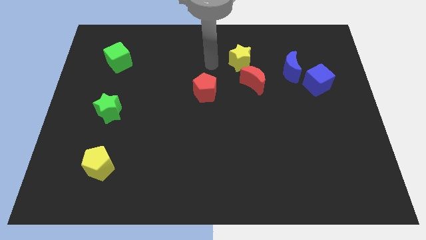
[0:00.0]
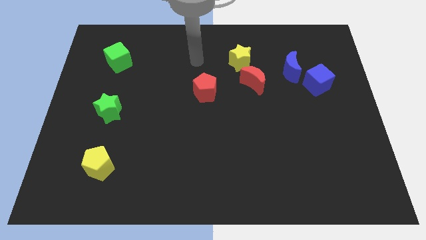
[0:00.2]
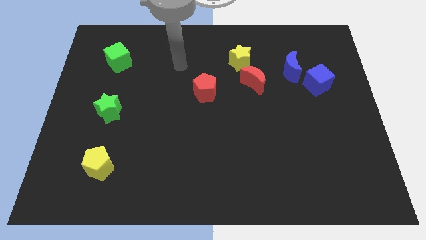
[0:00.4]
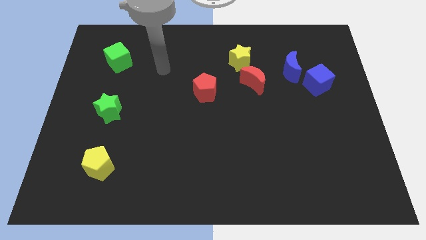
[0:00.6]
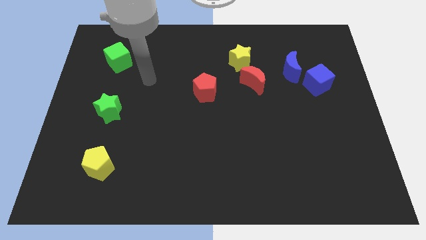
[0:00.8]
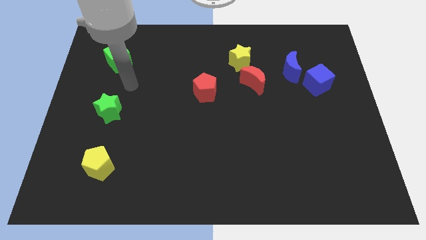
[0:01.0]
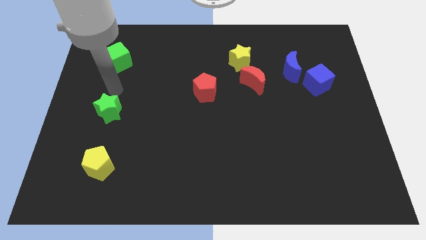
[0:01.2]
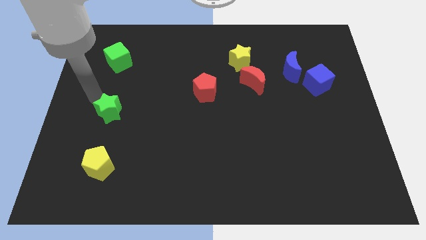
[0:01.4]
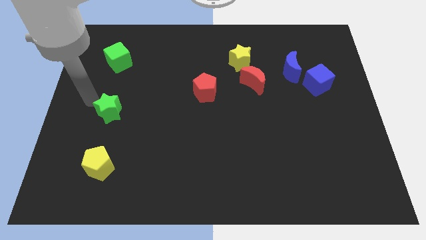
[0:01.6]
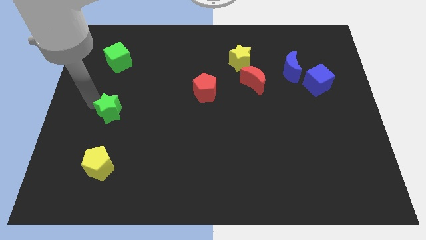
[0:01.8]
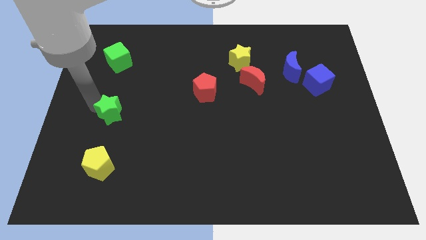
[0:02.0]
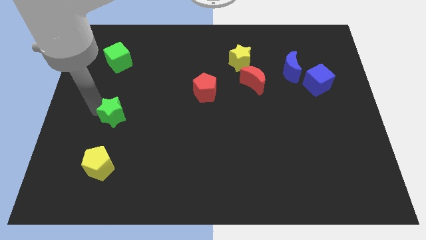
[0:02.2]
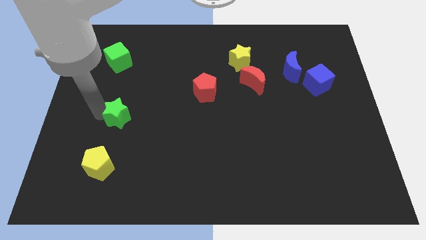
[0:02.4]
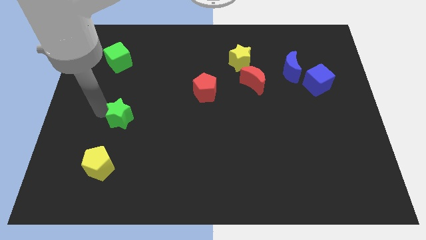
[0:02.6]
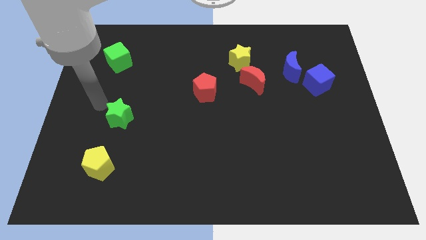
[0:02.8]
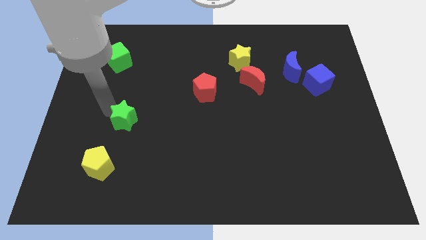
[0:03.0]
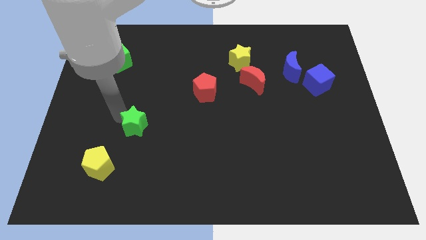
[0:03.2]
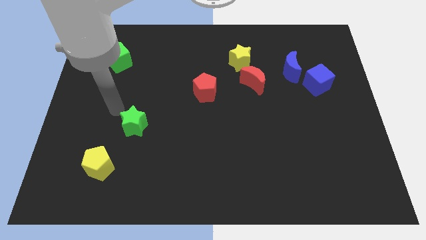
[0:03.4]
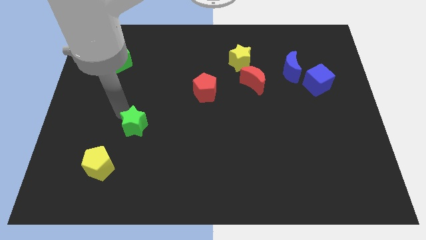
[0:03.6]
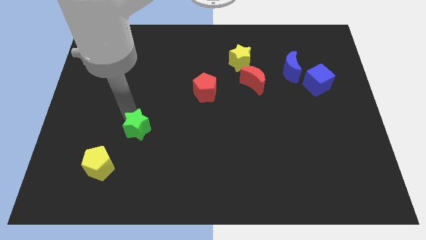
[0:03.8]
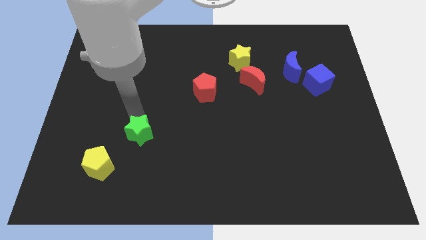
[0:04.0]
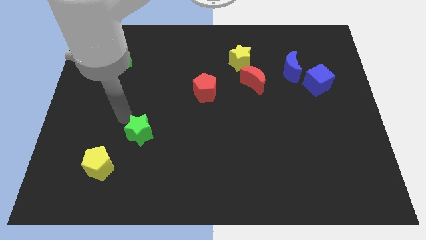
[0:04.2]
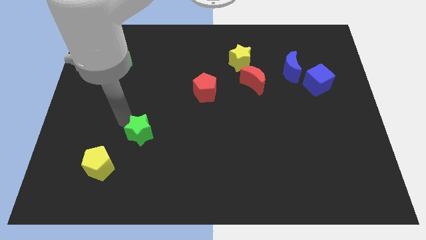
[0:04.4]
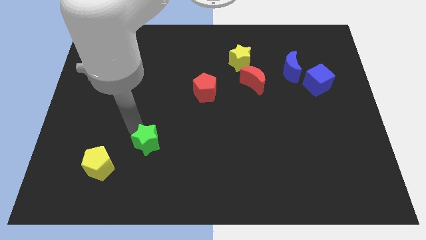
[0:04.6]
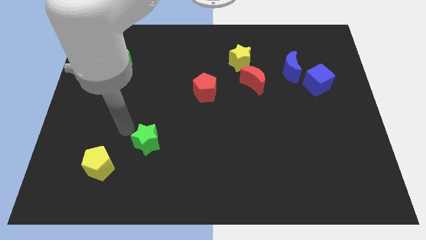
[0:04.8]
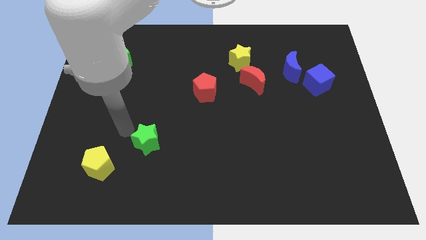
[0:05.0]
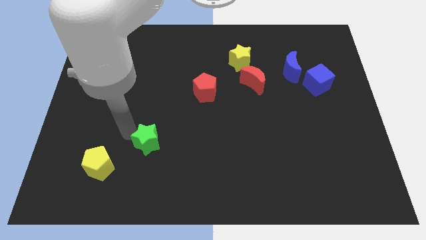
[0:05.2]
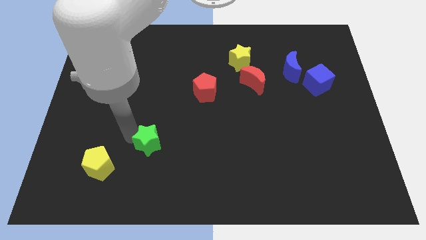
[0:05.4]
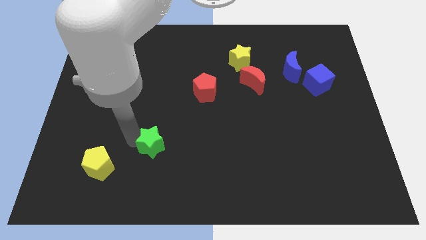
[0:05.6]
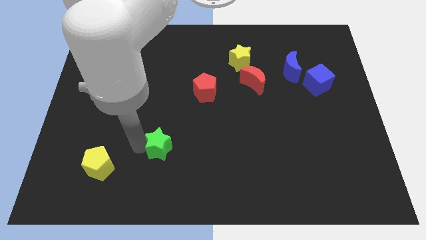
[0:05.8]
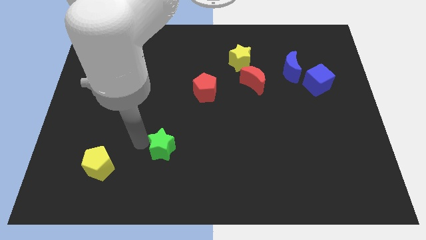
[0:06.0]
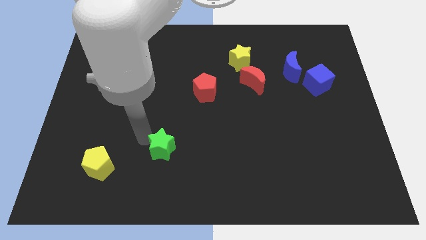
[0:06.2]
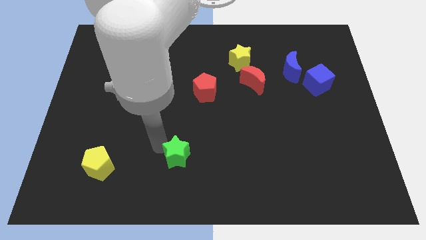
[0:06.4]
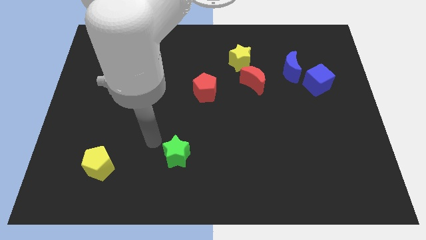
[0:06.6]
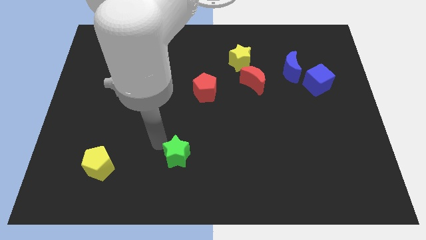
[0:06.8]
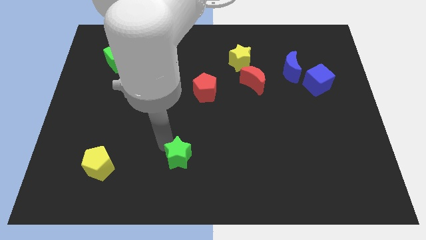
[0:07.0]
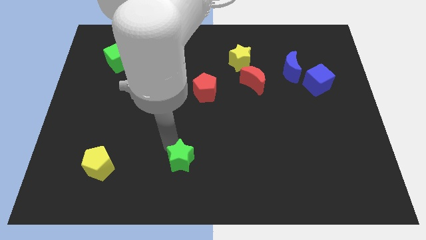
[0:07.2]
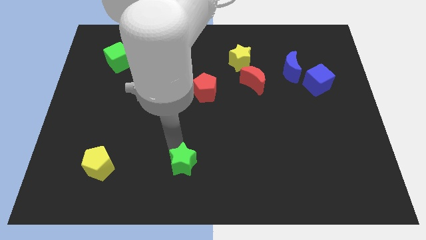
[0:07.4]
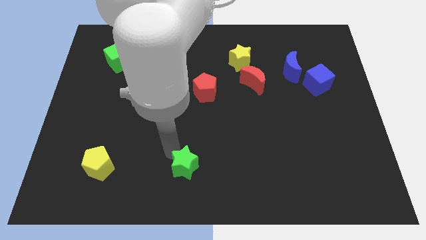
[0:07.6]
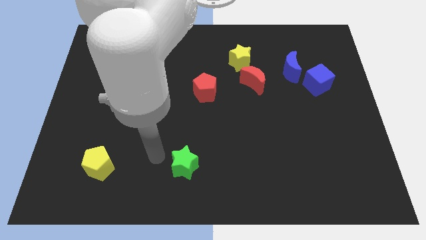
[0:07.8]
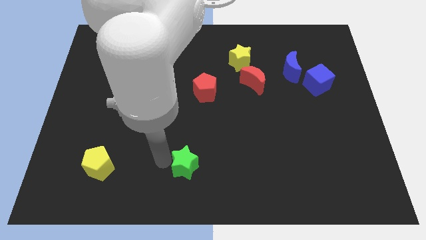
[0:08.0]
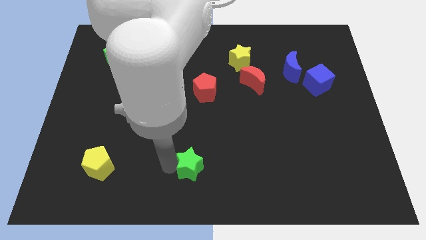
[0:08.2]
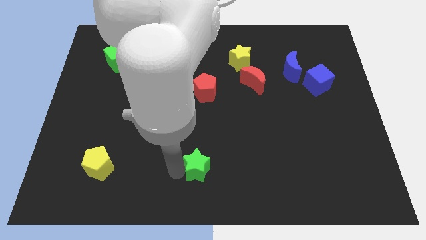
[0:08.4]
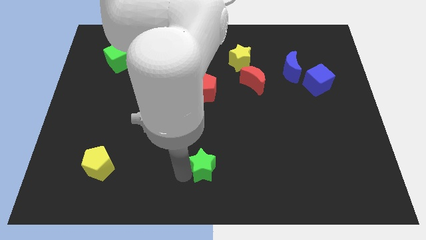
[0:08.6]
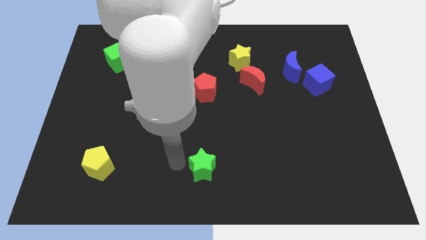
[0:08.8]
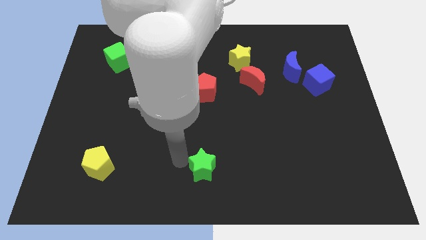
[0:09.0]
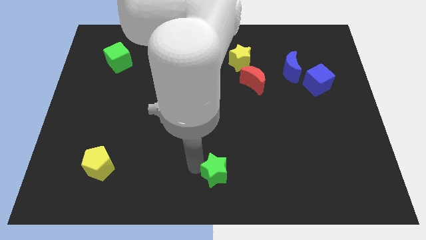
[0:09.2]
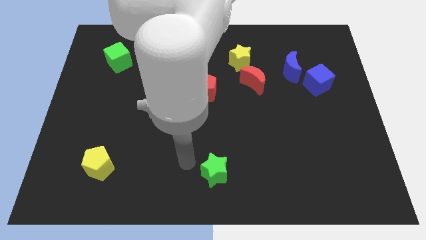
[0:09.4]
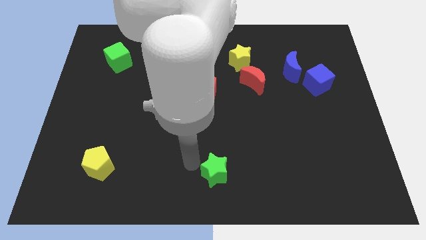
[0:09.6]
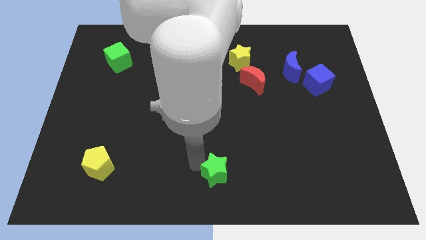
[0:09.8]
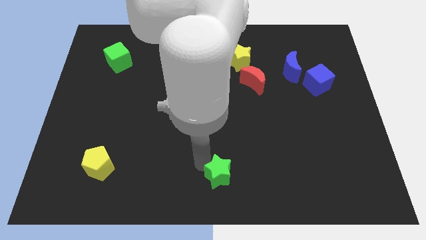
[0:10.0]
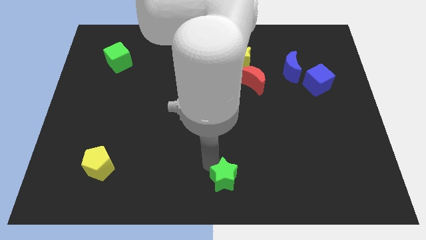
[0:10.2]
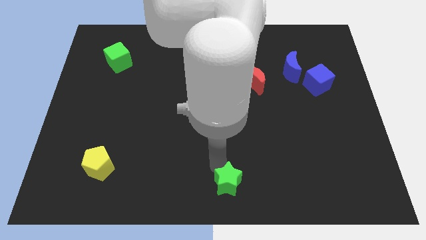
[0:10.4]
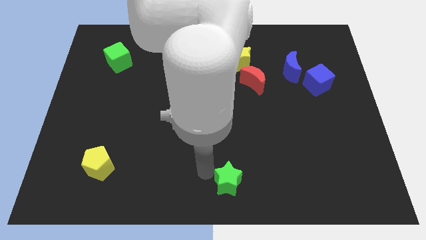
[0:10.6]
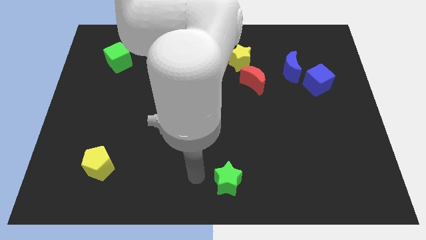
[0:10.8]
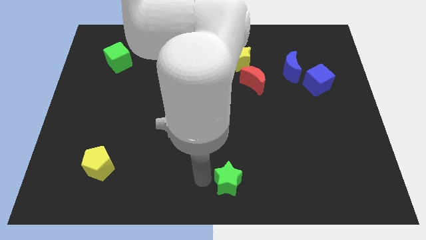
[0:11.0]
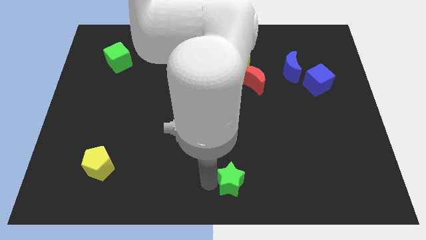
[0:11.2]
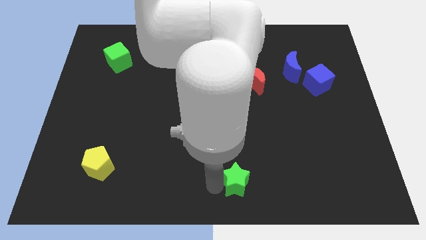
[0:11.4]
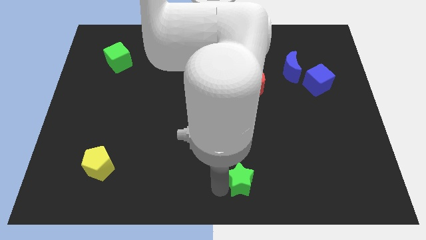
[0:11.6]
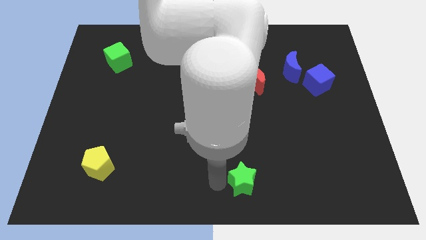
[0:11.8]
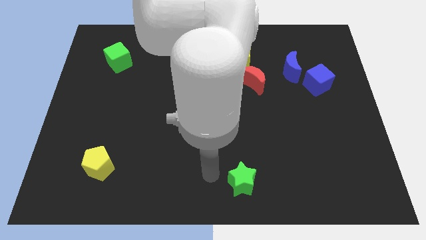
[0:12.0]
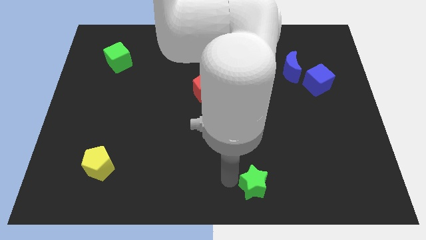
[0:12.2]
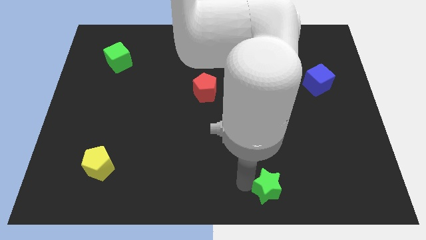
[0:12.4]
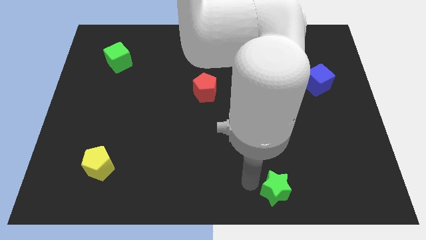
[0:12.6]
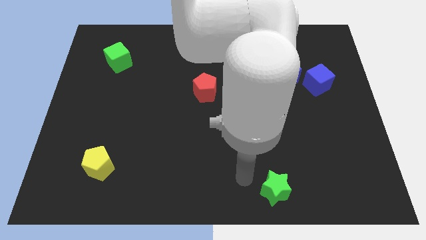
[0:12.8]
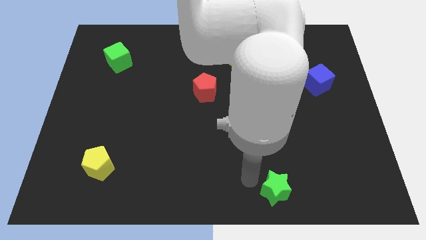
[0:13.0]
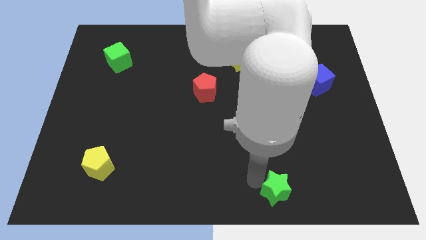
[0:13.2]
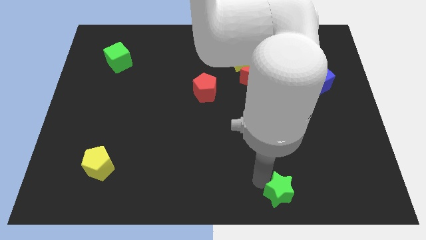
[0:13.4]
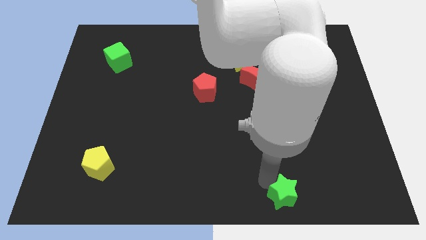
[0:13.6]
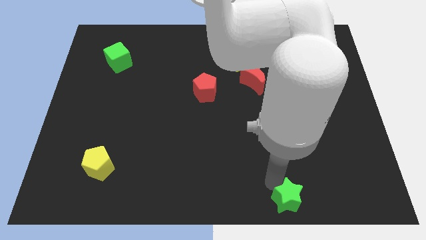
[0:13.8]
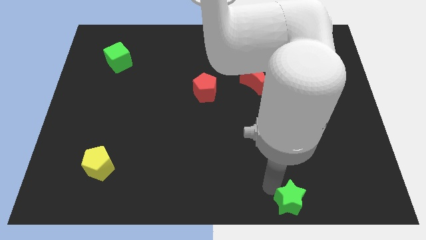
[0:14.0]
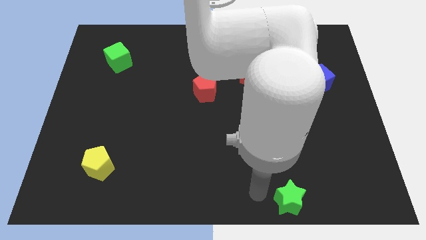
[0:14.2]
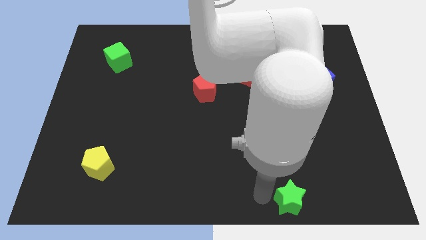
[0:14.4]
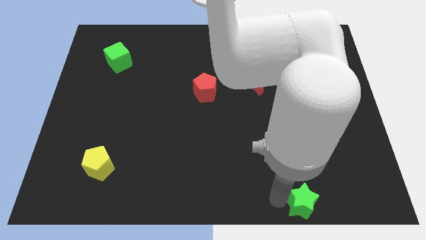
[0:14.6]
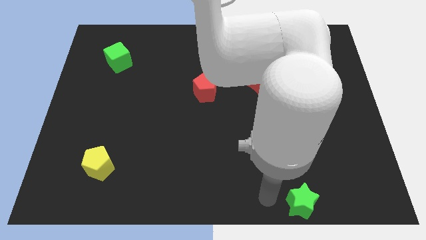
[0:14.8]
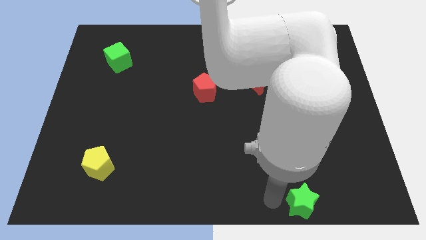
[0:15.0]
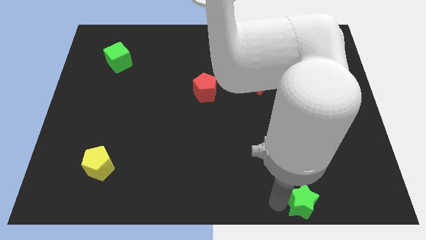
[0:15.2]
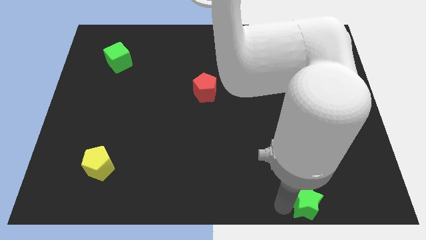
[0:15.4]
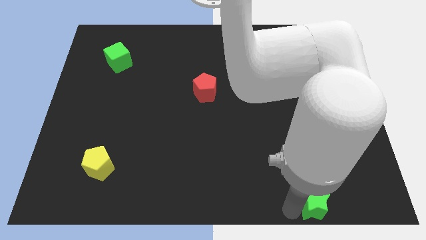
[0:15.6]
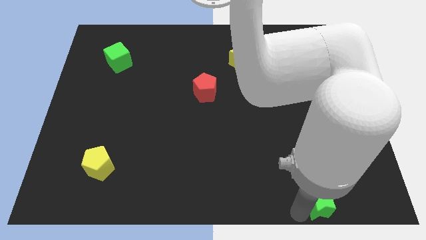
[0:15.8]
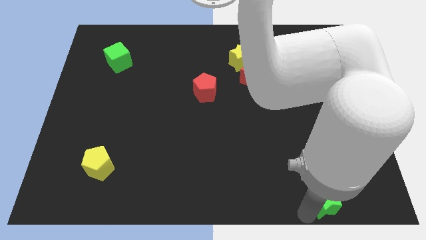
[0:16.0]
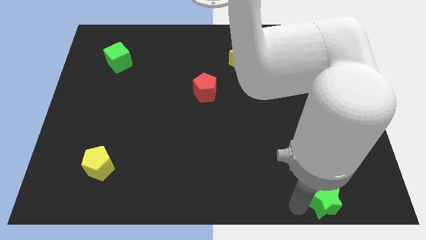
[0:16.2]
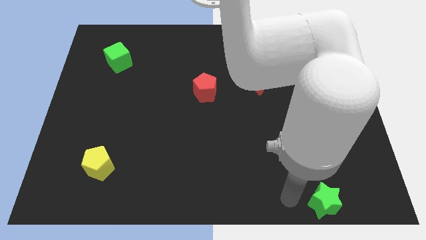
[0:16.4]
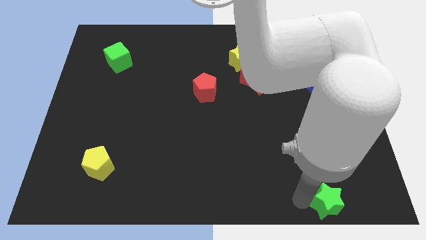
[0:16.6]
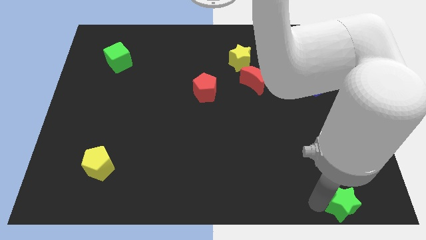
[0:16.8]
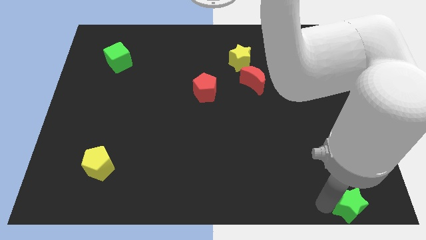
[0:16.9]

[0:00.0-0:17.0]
push the green star to the bottom right of the board
